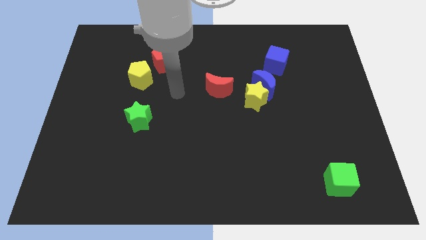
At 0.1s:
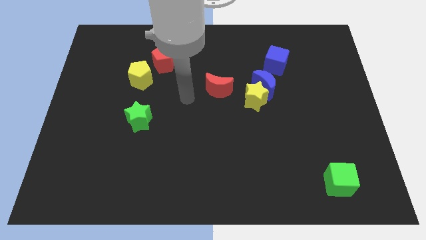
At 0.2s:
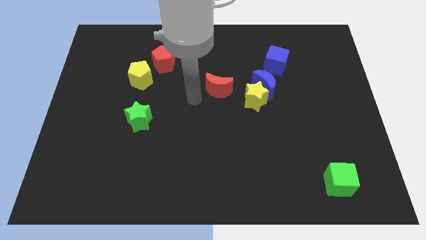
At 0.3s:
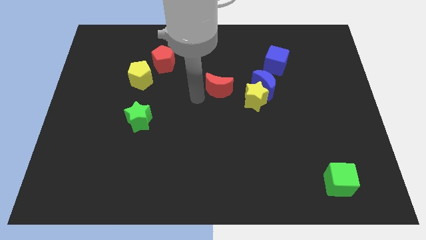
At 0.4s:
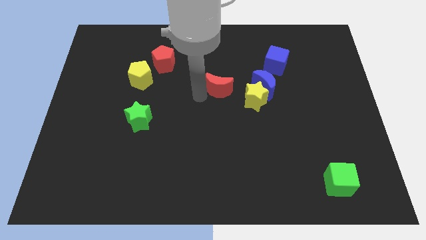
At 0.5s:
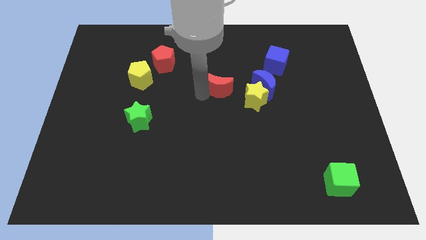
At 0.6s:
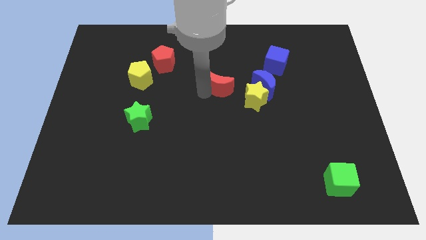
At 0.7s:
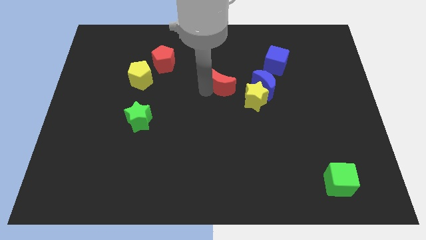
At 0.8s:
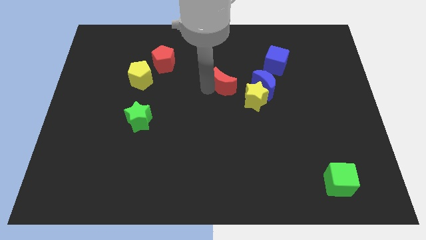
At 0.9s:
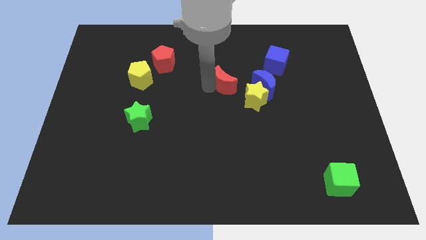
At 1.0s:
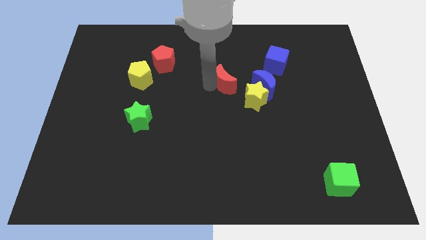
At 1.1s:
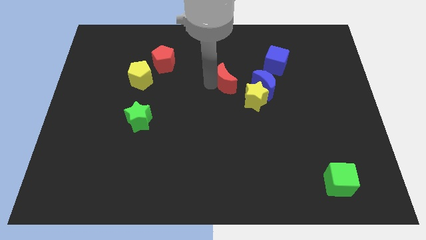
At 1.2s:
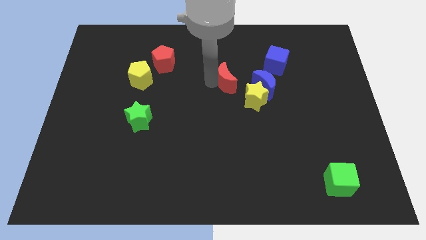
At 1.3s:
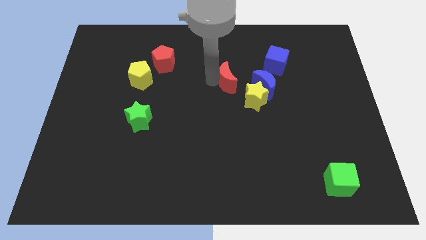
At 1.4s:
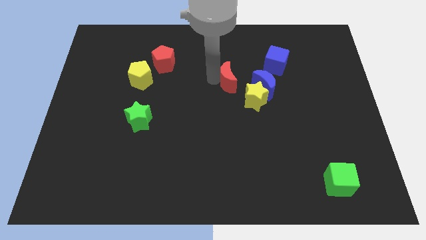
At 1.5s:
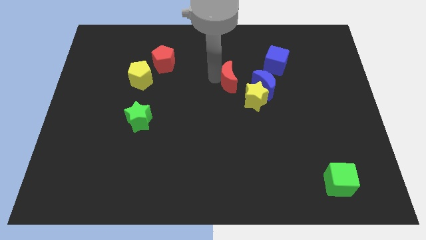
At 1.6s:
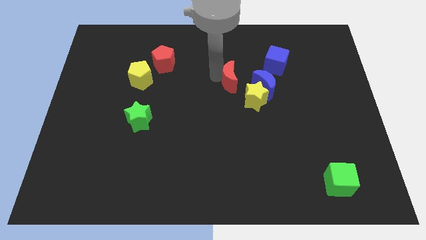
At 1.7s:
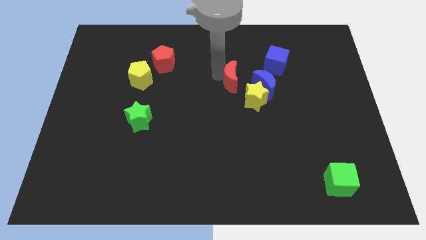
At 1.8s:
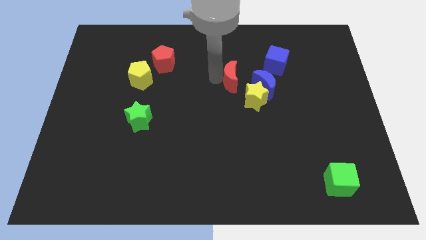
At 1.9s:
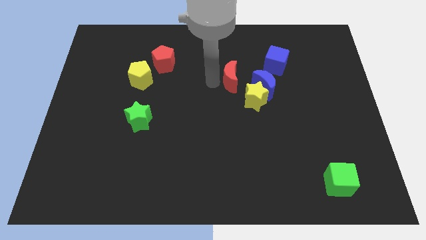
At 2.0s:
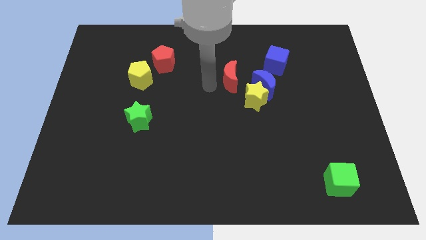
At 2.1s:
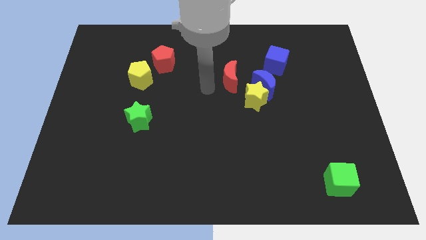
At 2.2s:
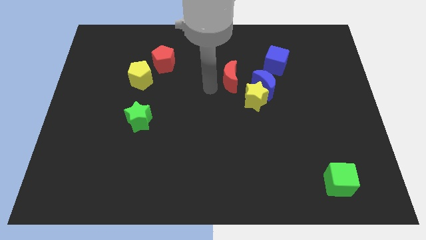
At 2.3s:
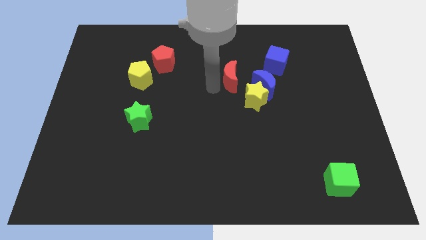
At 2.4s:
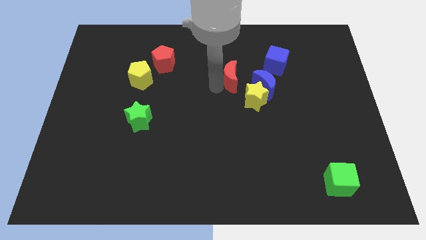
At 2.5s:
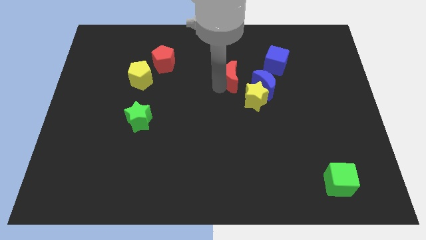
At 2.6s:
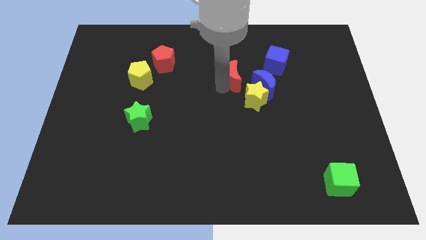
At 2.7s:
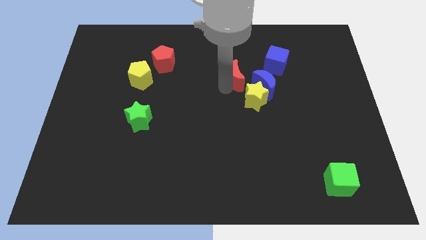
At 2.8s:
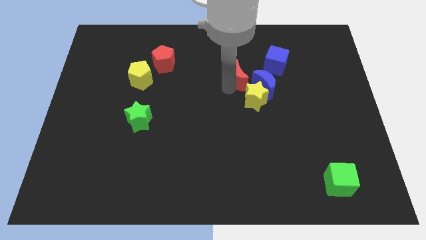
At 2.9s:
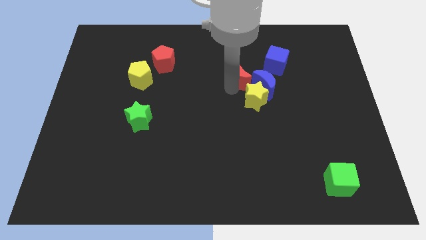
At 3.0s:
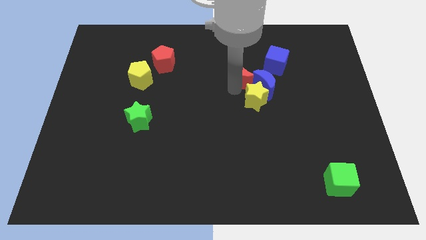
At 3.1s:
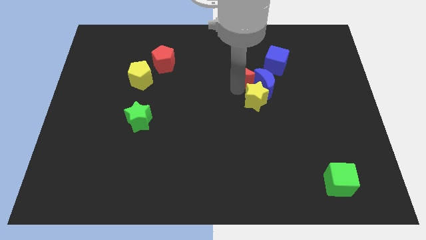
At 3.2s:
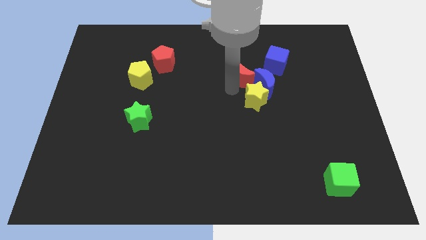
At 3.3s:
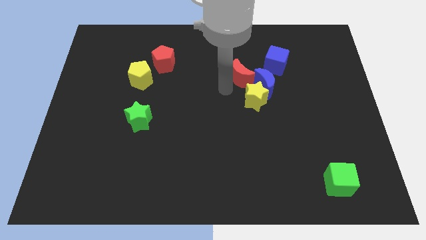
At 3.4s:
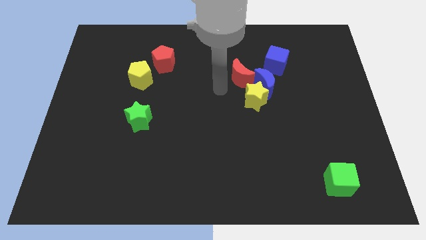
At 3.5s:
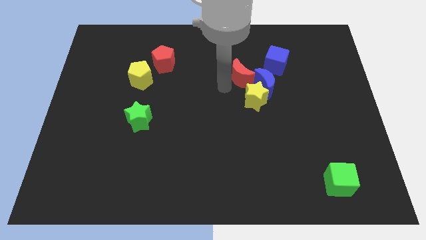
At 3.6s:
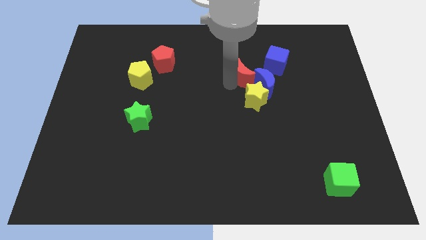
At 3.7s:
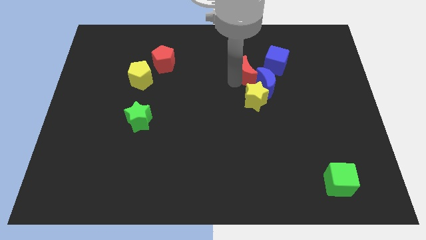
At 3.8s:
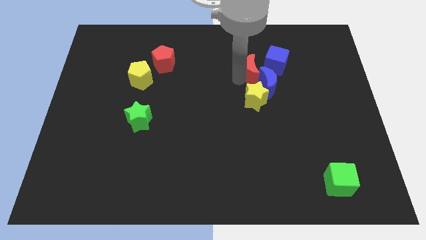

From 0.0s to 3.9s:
slightly move the red moon to the right

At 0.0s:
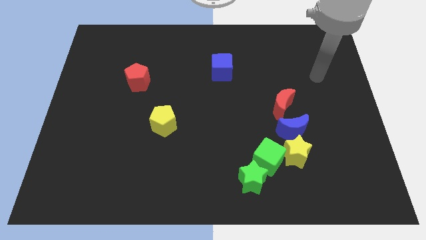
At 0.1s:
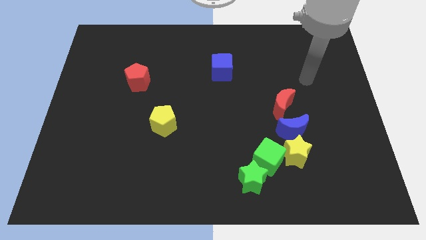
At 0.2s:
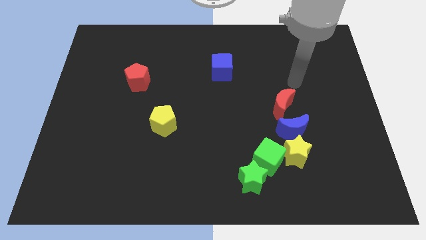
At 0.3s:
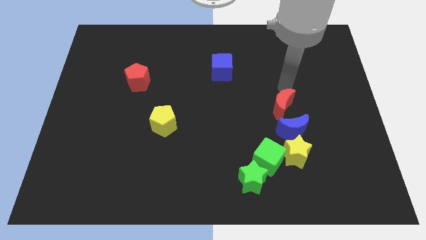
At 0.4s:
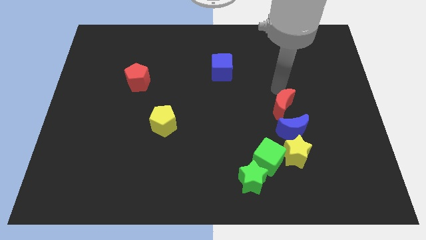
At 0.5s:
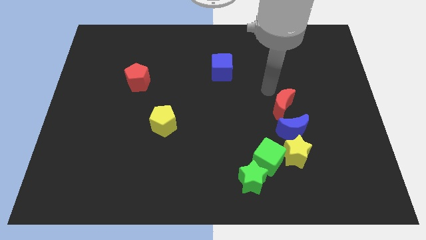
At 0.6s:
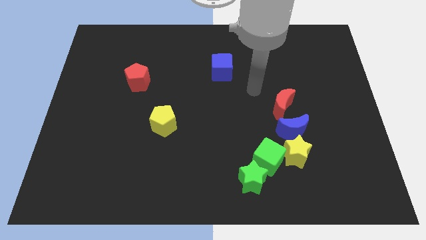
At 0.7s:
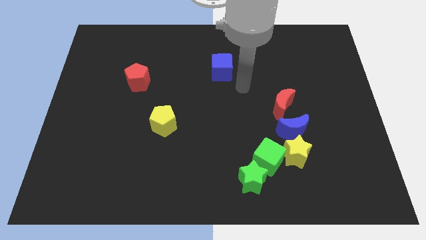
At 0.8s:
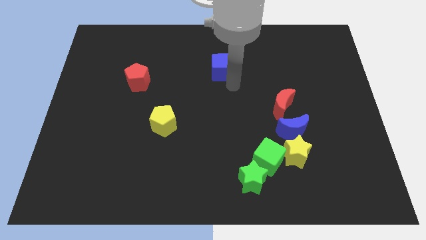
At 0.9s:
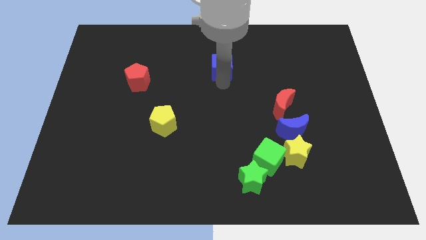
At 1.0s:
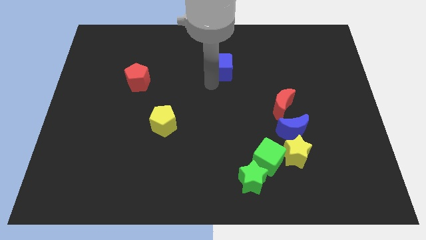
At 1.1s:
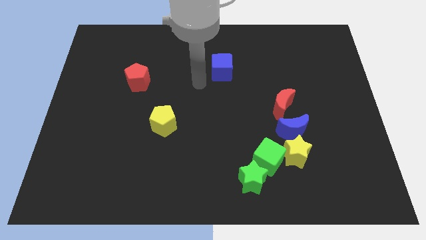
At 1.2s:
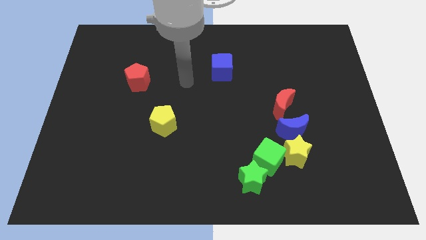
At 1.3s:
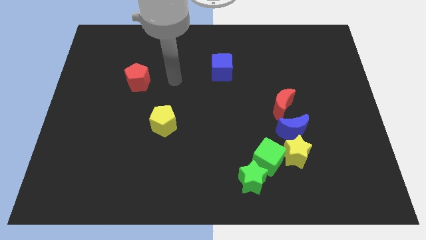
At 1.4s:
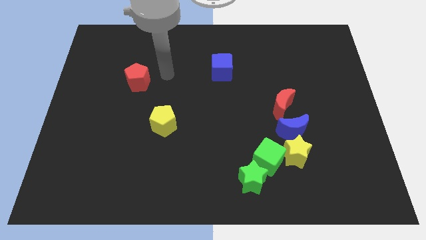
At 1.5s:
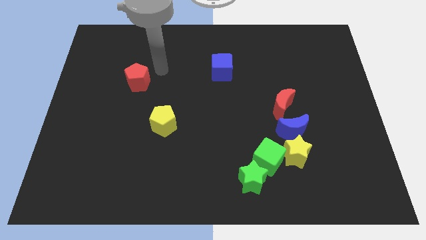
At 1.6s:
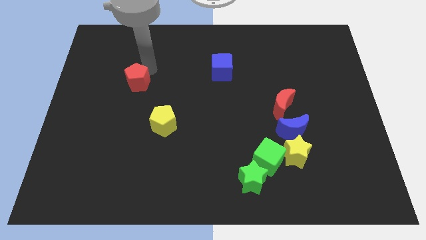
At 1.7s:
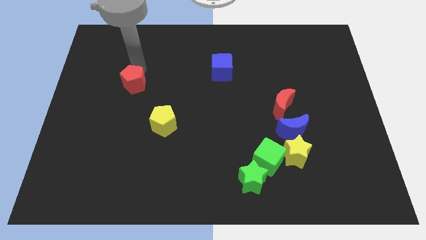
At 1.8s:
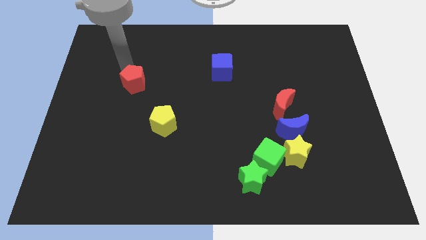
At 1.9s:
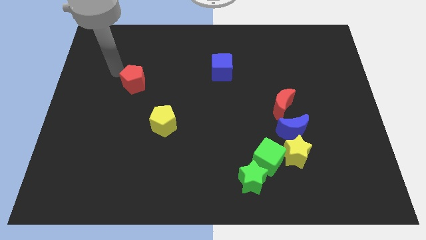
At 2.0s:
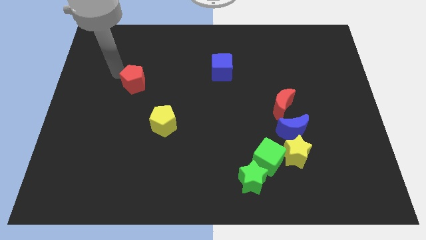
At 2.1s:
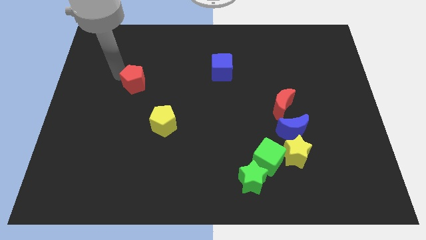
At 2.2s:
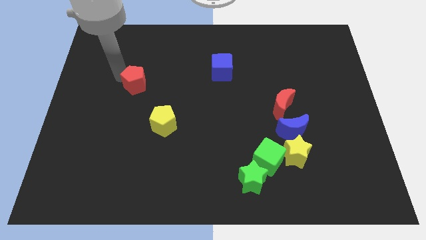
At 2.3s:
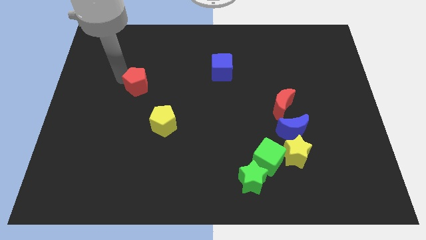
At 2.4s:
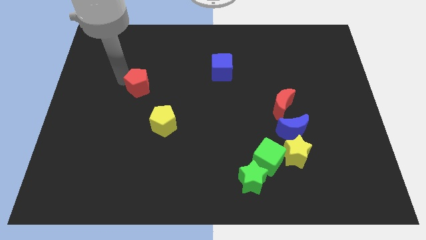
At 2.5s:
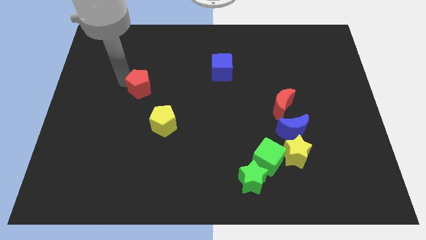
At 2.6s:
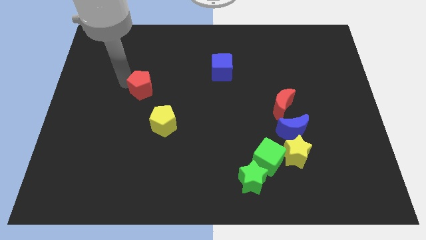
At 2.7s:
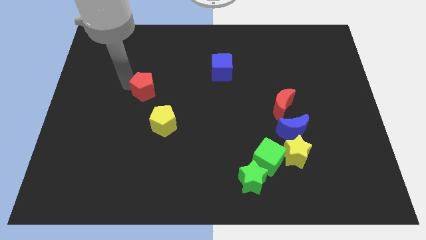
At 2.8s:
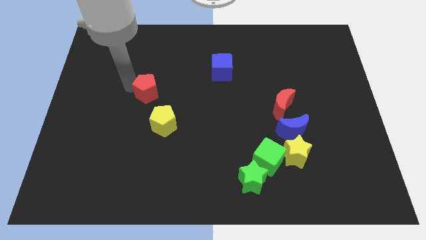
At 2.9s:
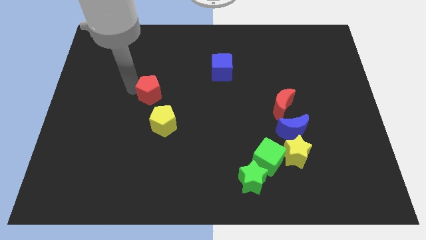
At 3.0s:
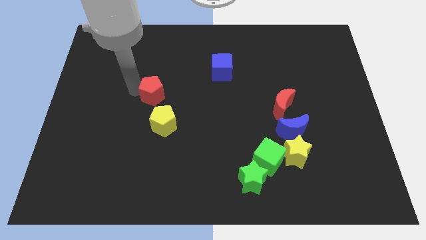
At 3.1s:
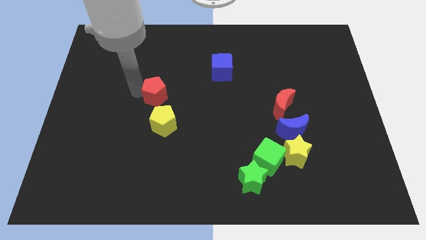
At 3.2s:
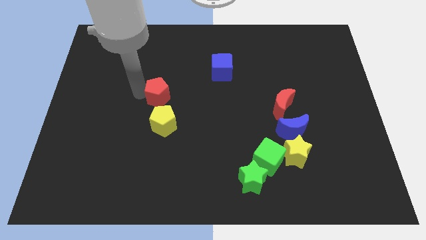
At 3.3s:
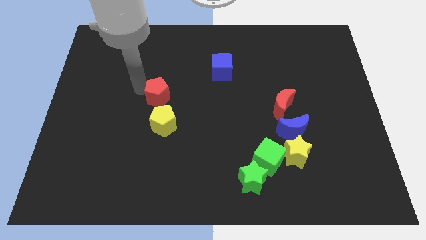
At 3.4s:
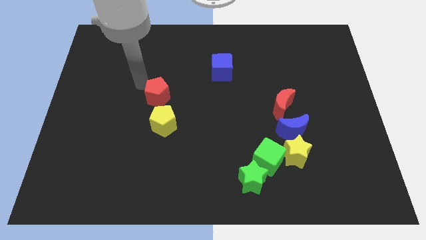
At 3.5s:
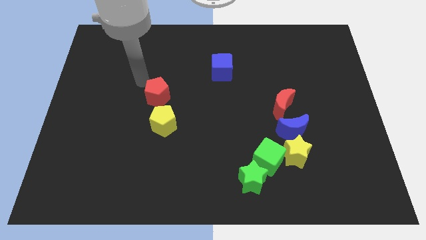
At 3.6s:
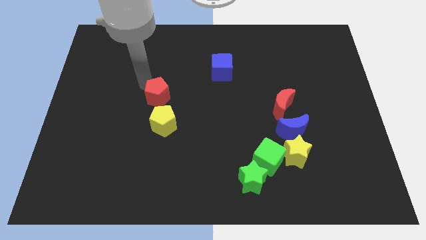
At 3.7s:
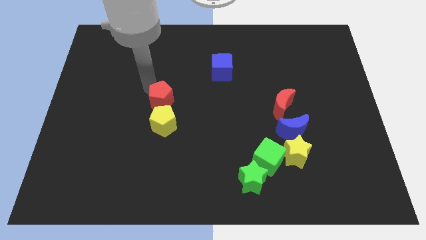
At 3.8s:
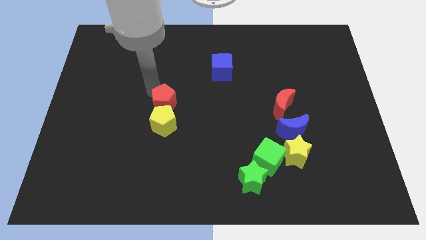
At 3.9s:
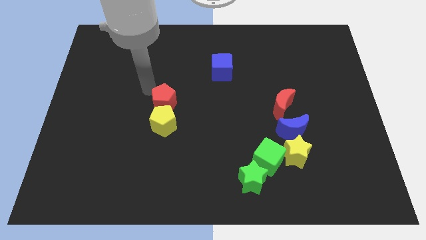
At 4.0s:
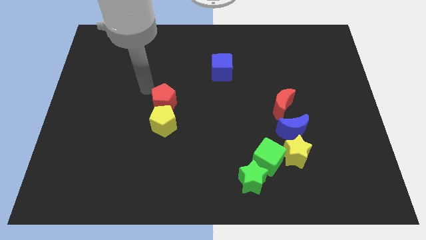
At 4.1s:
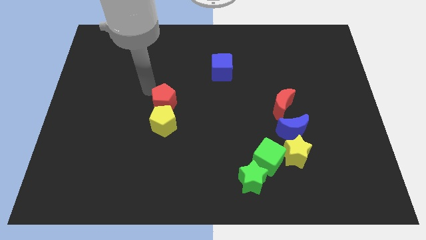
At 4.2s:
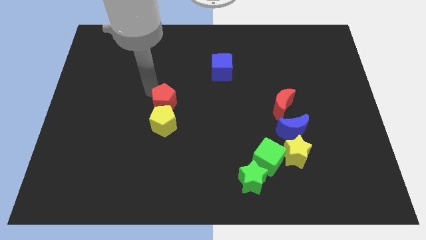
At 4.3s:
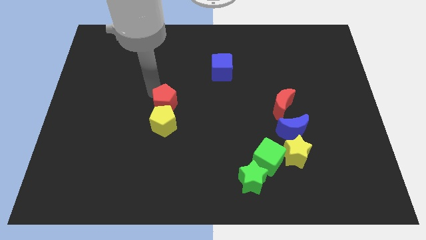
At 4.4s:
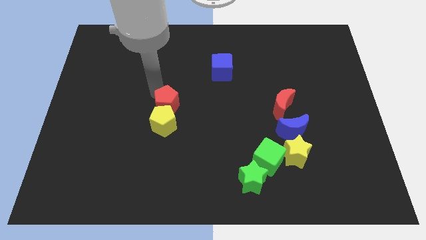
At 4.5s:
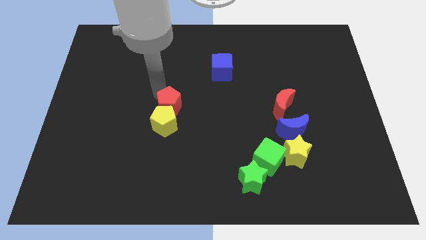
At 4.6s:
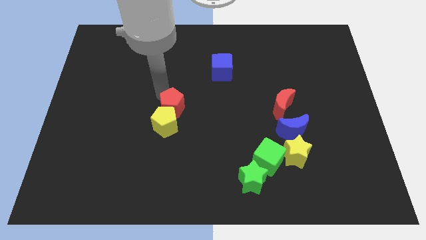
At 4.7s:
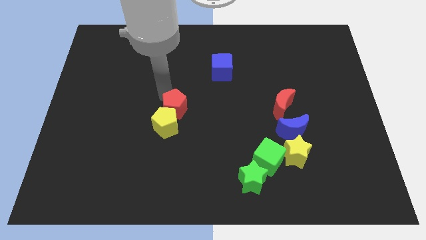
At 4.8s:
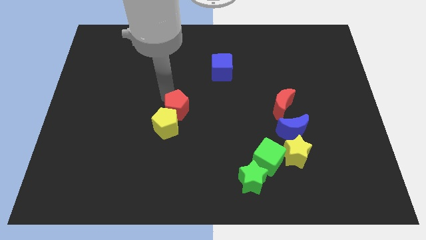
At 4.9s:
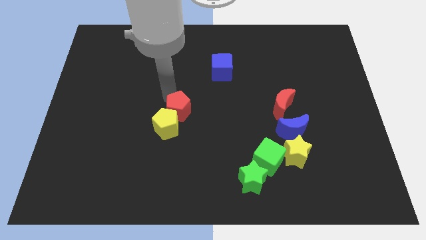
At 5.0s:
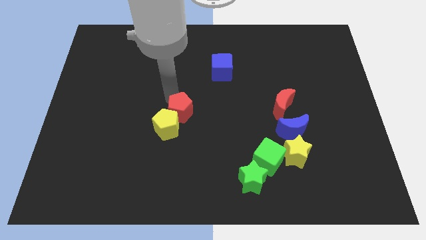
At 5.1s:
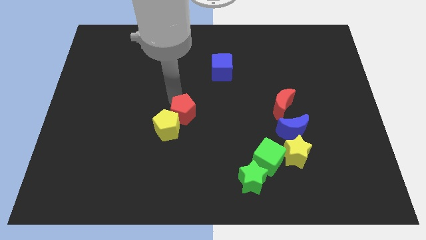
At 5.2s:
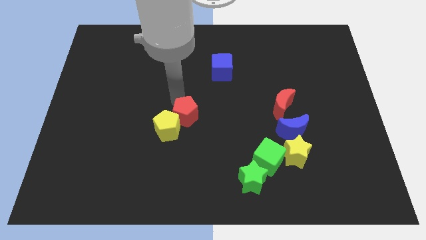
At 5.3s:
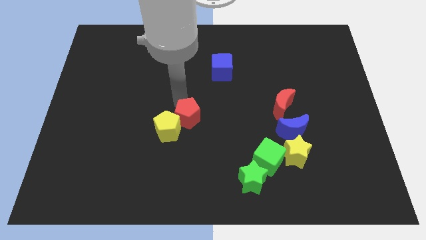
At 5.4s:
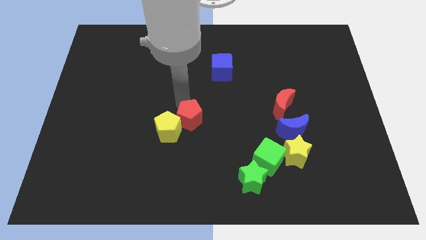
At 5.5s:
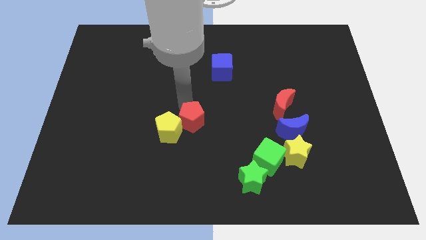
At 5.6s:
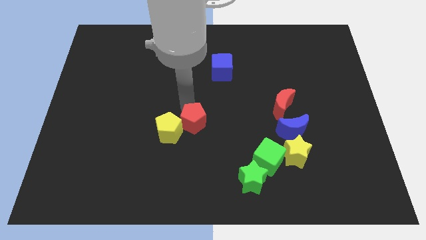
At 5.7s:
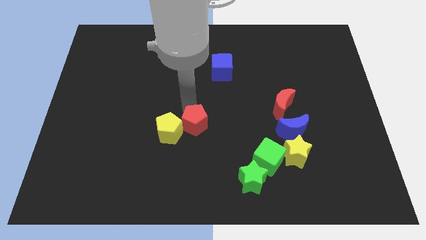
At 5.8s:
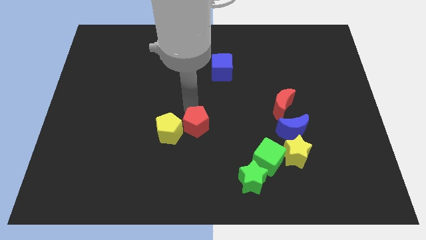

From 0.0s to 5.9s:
push the red pentagon down and to the right
